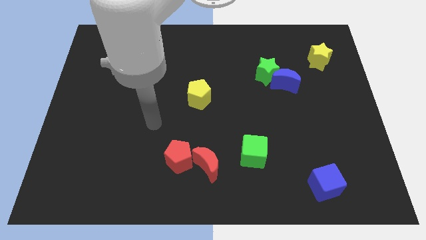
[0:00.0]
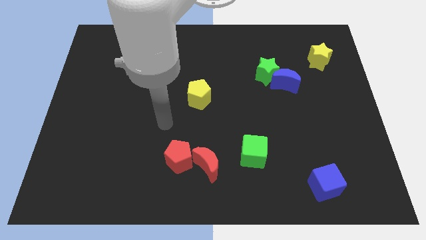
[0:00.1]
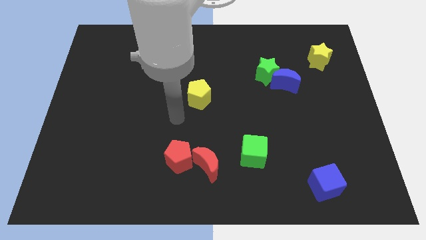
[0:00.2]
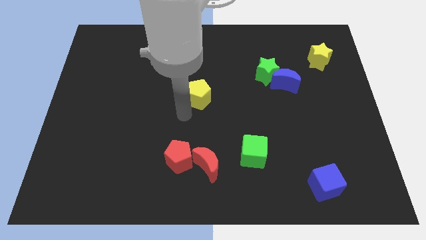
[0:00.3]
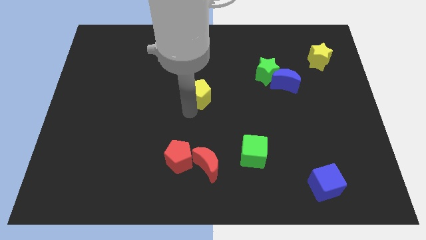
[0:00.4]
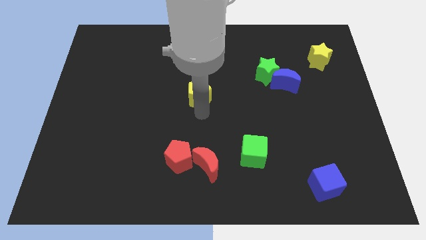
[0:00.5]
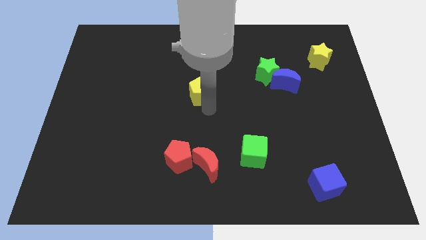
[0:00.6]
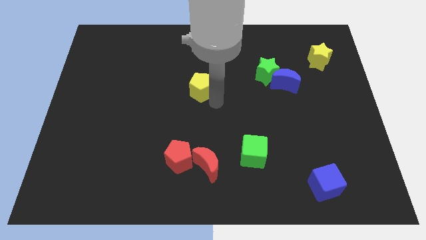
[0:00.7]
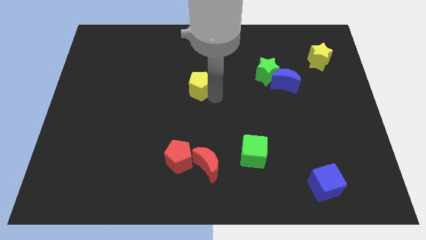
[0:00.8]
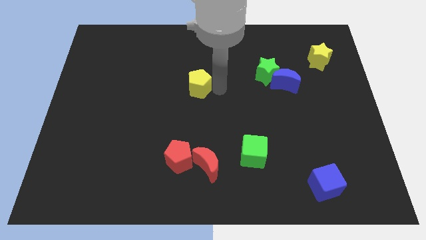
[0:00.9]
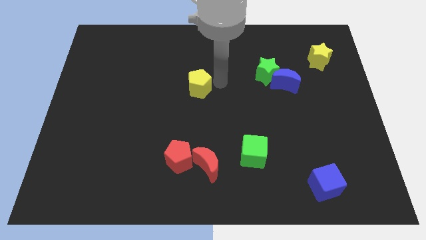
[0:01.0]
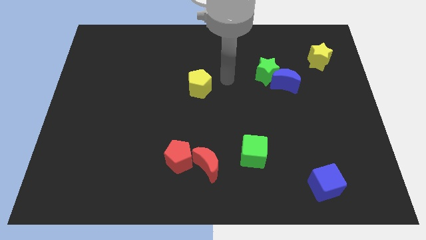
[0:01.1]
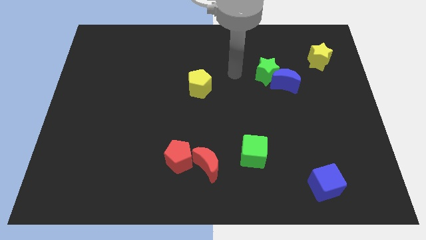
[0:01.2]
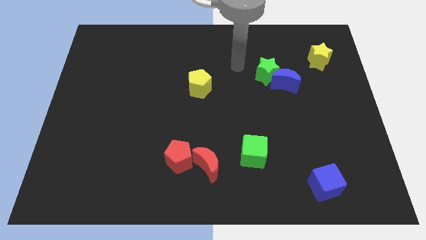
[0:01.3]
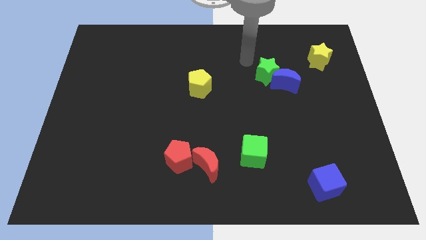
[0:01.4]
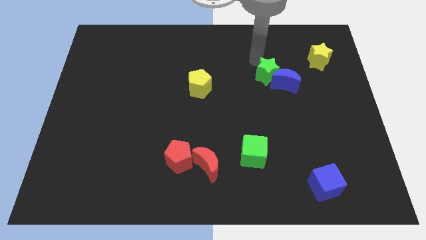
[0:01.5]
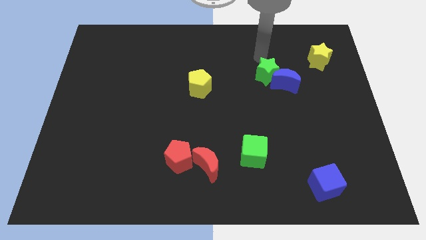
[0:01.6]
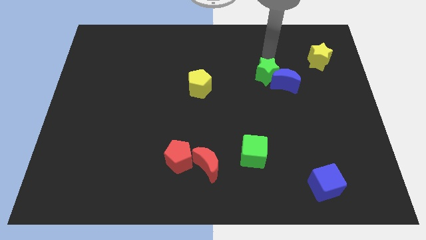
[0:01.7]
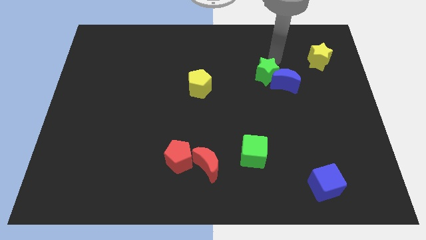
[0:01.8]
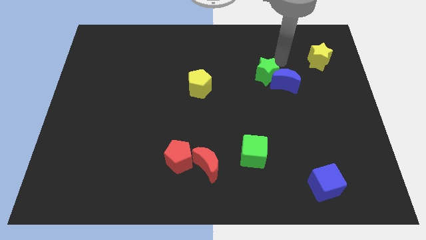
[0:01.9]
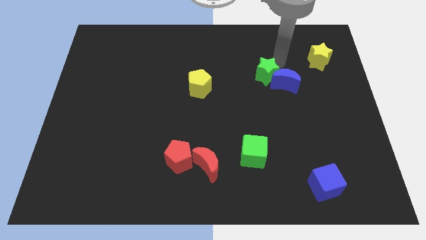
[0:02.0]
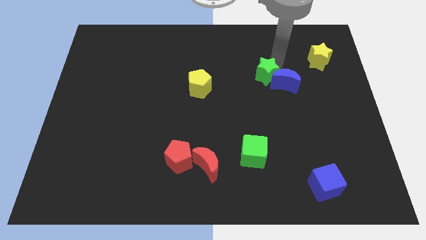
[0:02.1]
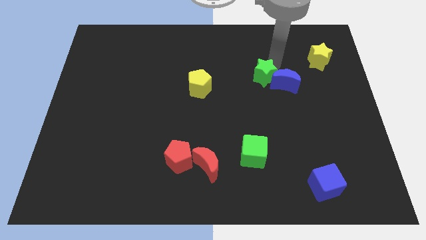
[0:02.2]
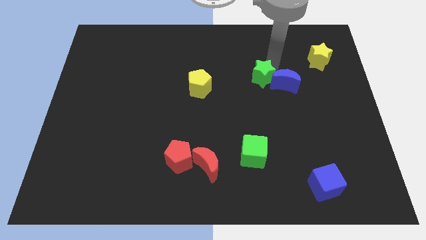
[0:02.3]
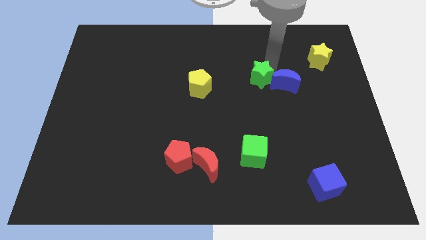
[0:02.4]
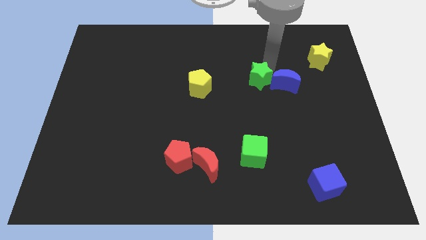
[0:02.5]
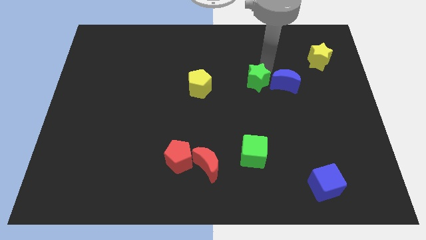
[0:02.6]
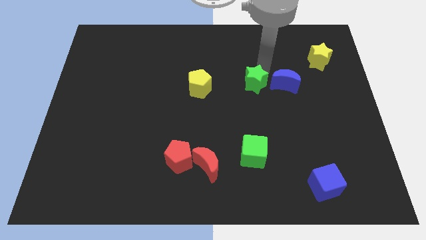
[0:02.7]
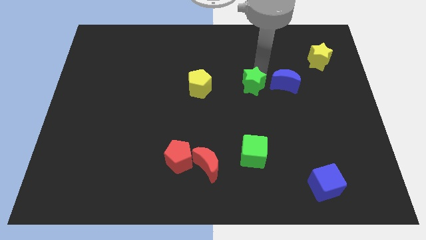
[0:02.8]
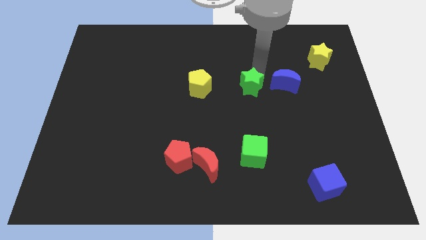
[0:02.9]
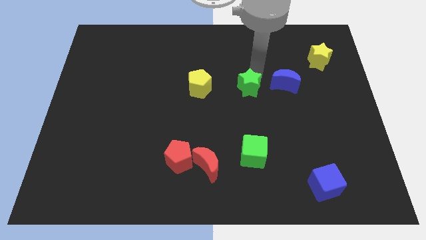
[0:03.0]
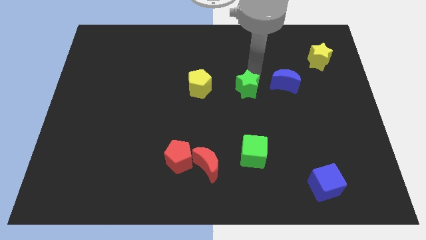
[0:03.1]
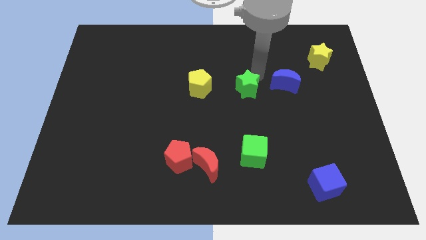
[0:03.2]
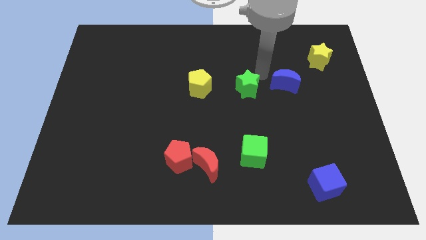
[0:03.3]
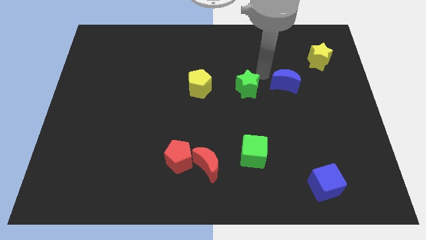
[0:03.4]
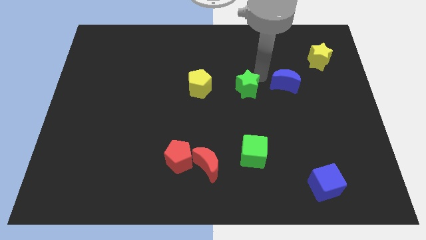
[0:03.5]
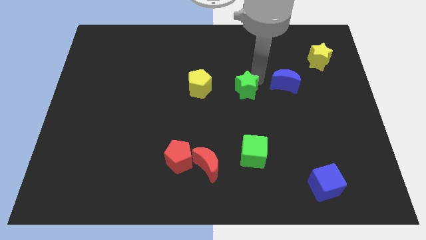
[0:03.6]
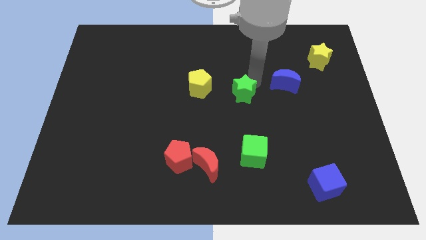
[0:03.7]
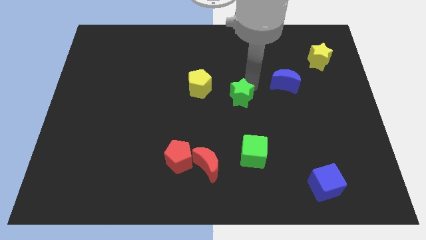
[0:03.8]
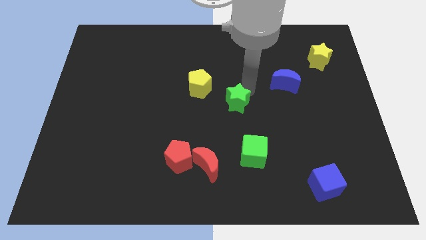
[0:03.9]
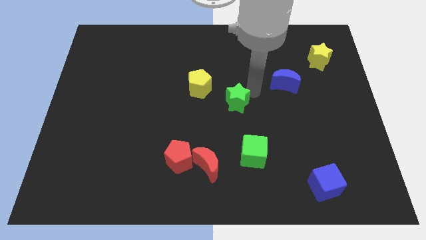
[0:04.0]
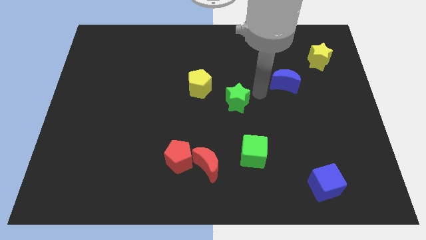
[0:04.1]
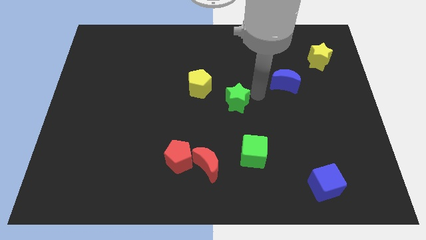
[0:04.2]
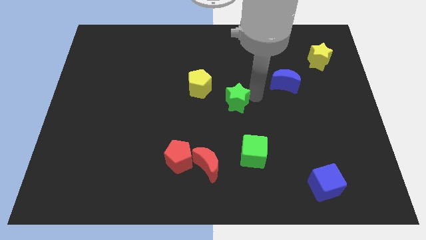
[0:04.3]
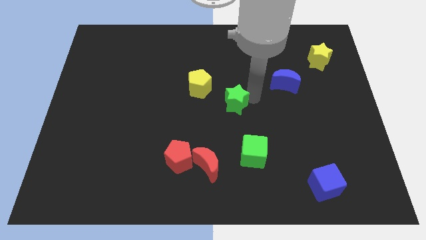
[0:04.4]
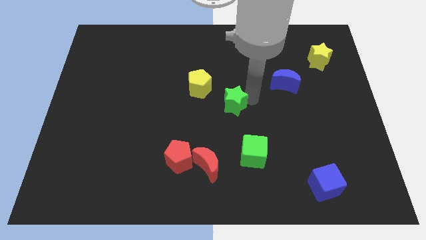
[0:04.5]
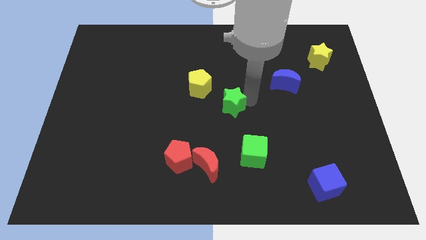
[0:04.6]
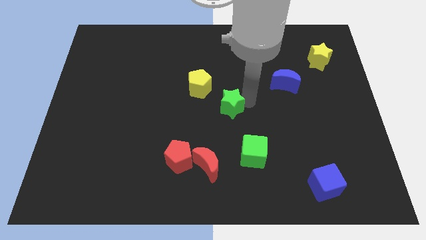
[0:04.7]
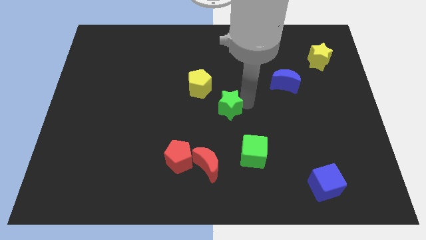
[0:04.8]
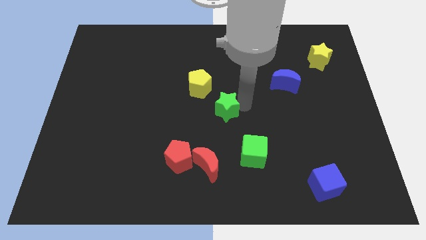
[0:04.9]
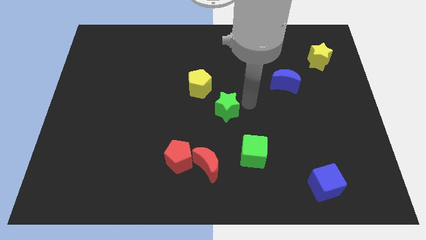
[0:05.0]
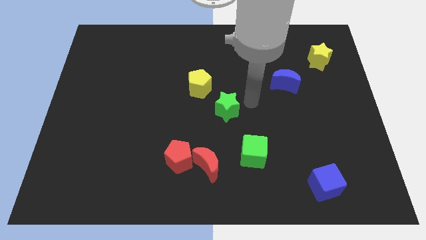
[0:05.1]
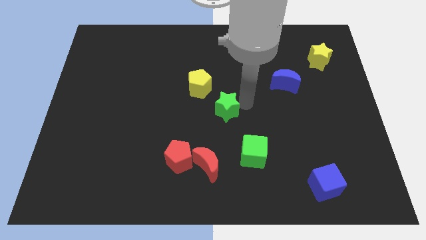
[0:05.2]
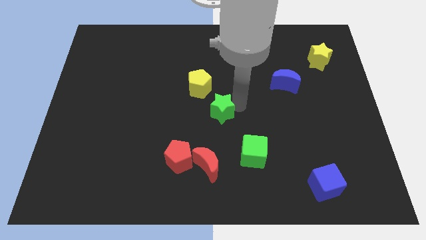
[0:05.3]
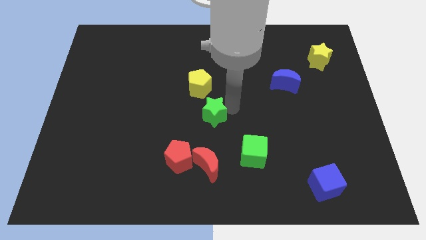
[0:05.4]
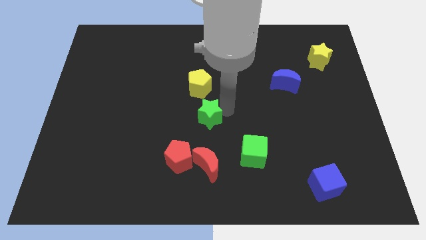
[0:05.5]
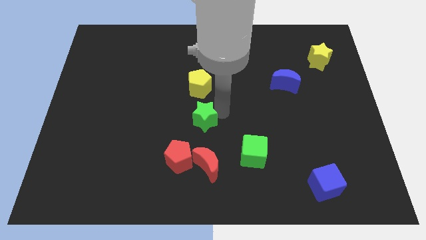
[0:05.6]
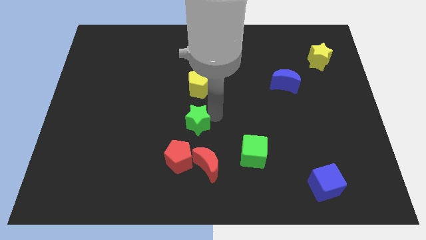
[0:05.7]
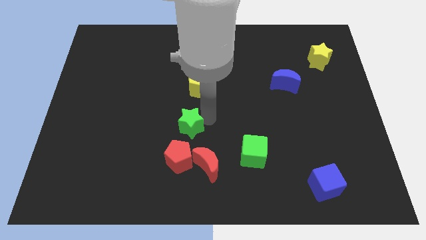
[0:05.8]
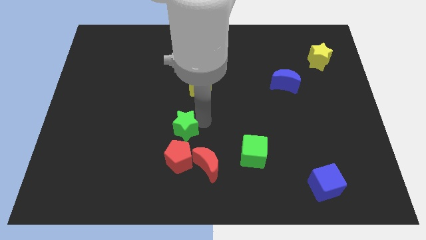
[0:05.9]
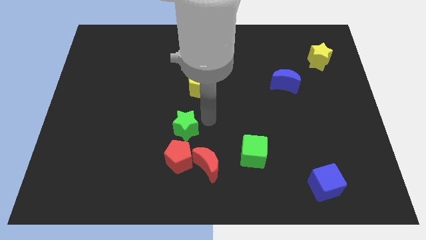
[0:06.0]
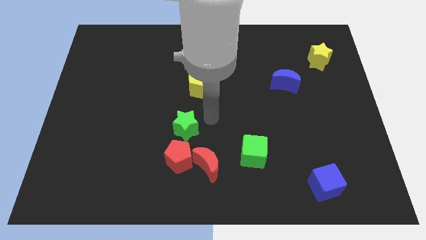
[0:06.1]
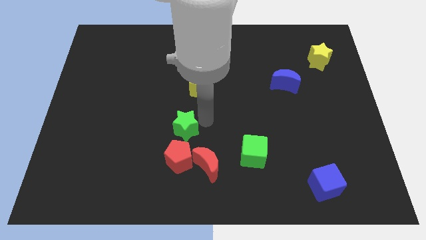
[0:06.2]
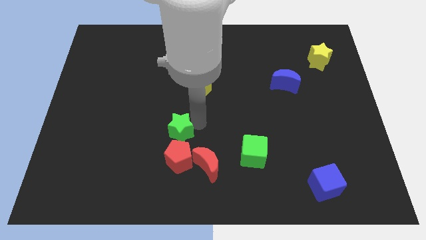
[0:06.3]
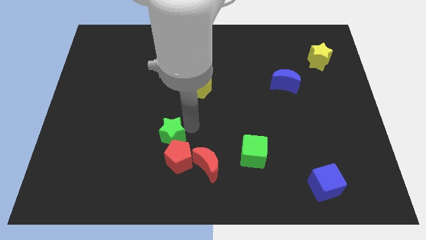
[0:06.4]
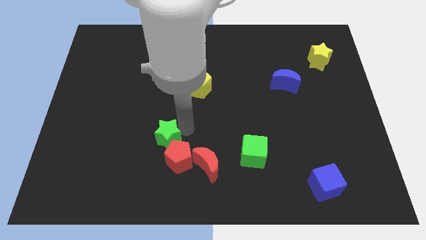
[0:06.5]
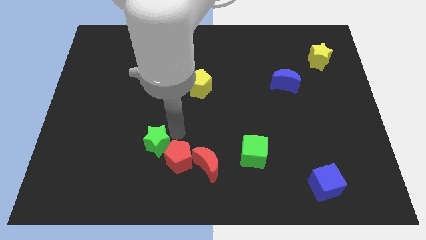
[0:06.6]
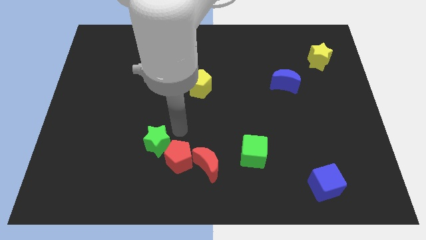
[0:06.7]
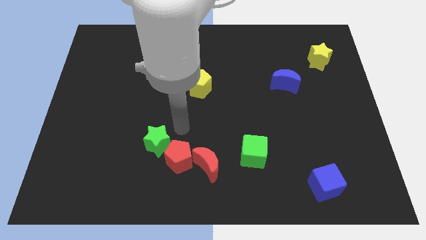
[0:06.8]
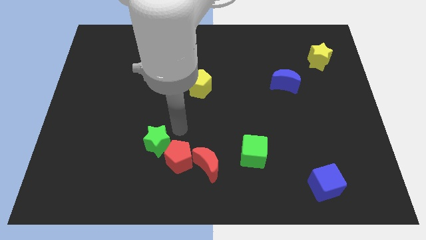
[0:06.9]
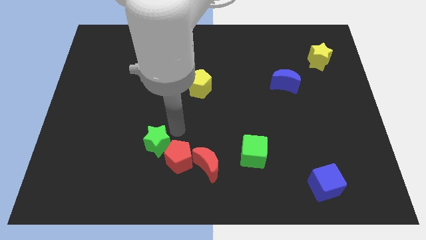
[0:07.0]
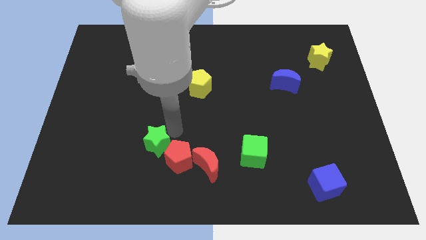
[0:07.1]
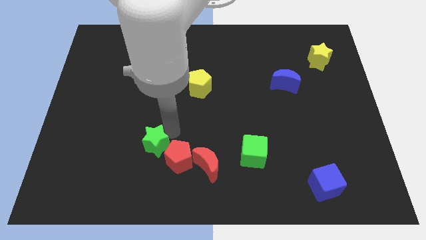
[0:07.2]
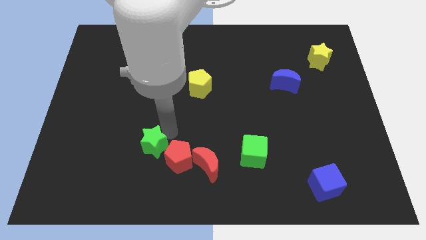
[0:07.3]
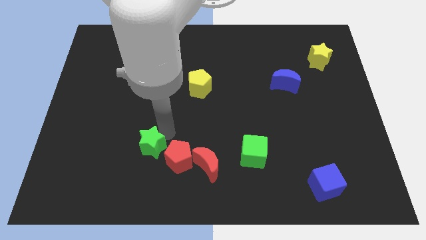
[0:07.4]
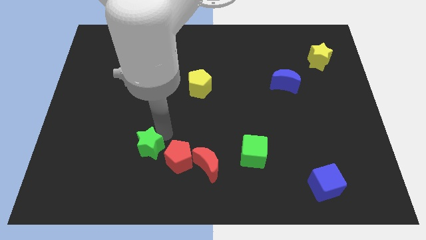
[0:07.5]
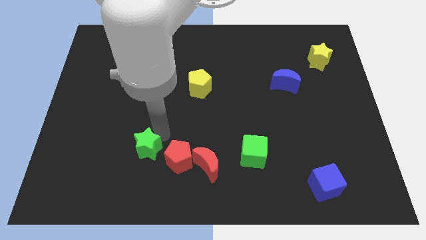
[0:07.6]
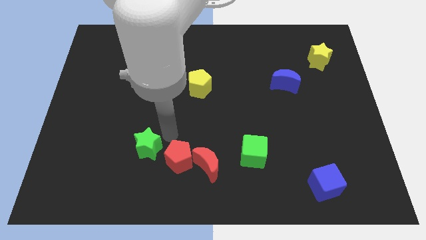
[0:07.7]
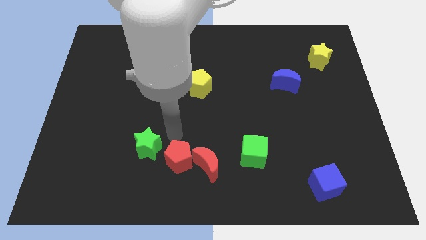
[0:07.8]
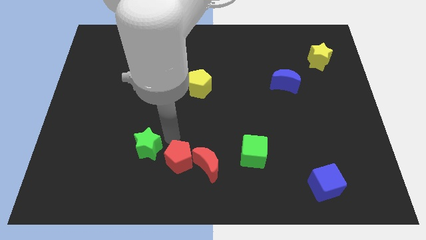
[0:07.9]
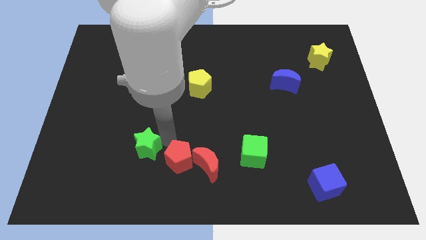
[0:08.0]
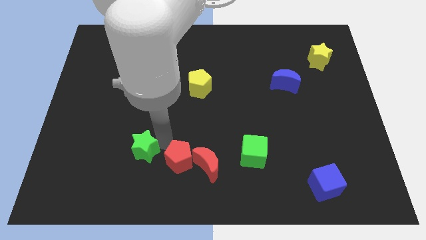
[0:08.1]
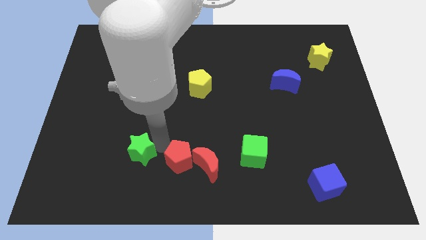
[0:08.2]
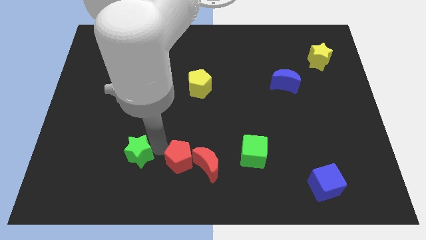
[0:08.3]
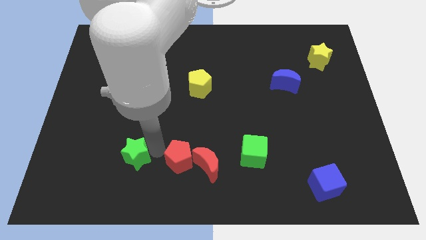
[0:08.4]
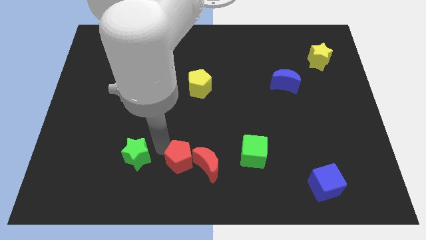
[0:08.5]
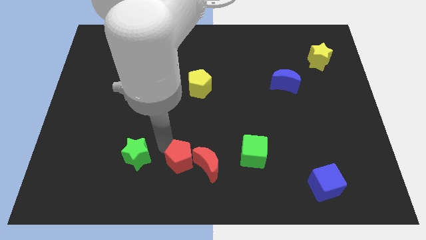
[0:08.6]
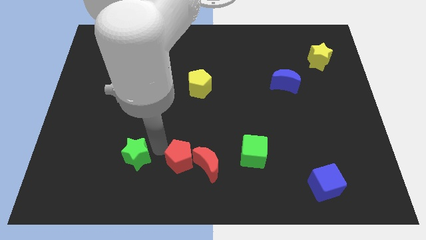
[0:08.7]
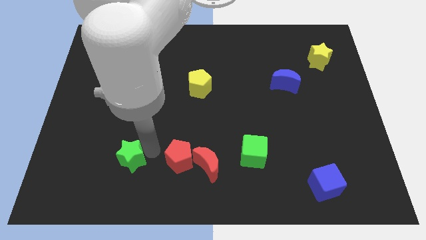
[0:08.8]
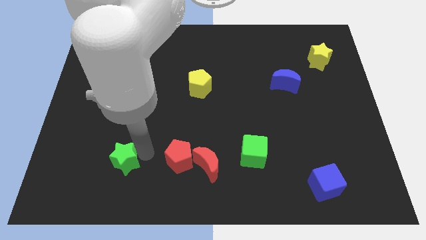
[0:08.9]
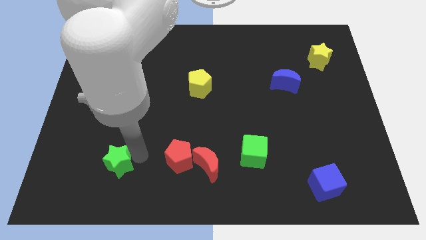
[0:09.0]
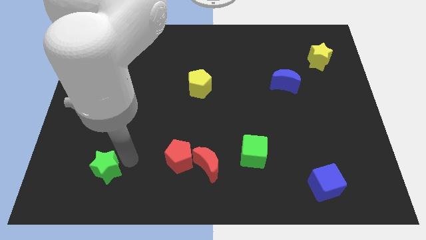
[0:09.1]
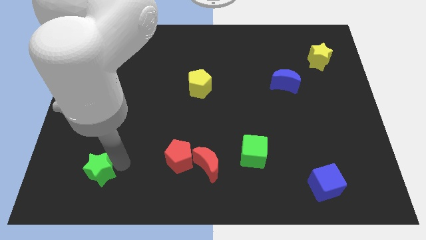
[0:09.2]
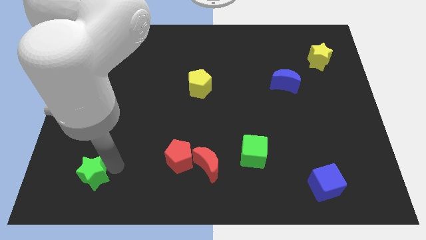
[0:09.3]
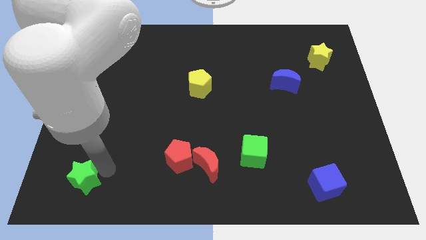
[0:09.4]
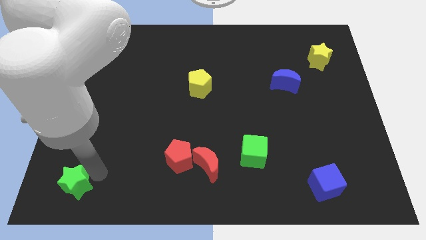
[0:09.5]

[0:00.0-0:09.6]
move the green star to the lower left corner
